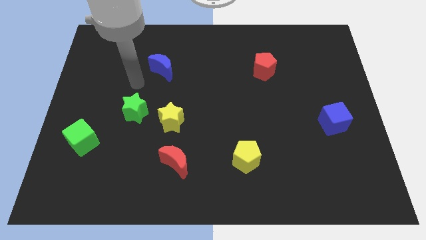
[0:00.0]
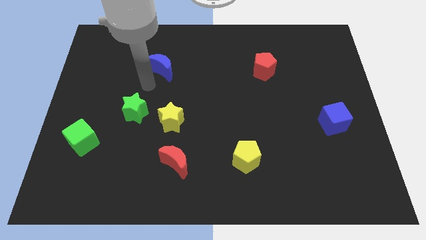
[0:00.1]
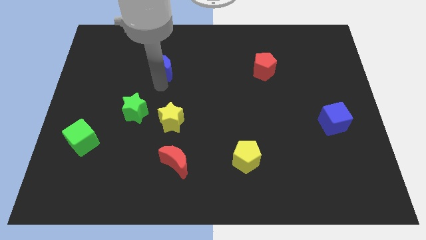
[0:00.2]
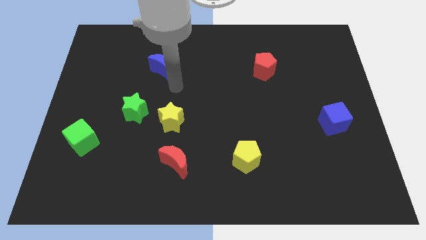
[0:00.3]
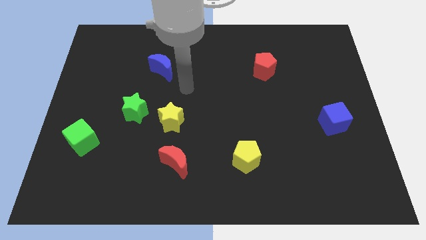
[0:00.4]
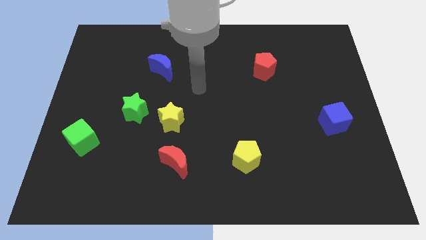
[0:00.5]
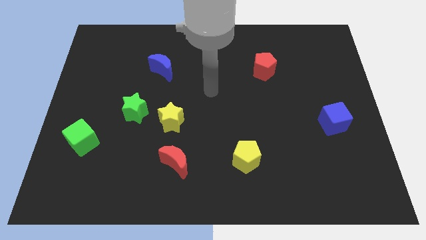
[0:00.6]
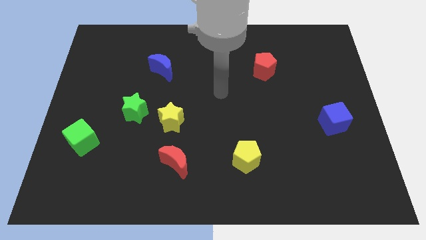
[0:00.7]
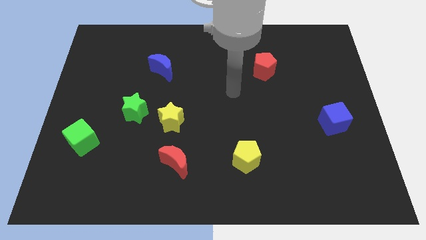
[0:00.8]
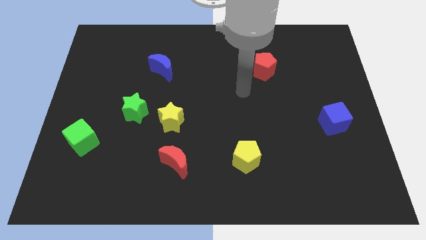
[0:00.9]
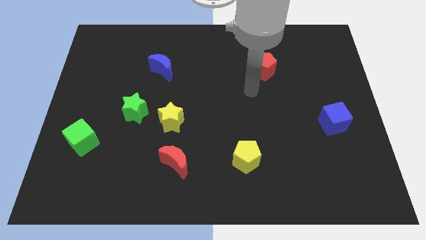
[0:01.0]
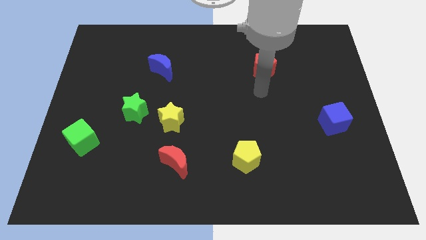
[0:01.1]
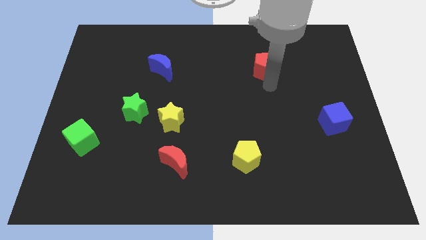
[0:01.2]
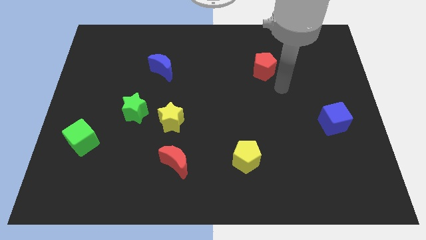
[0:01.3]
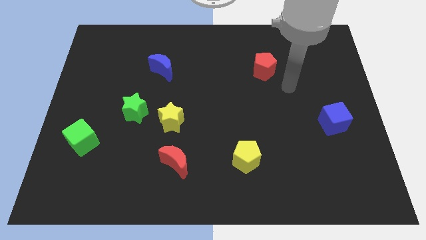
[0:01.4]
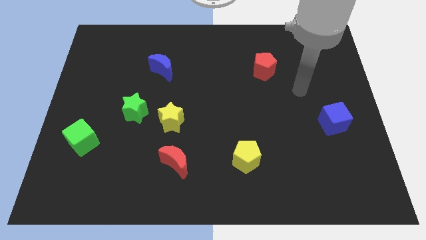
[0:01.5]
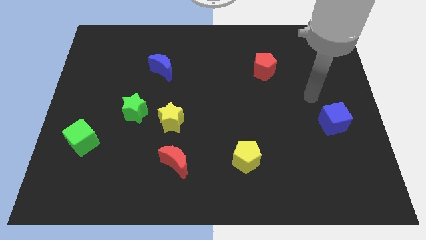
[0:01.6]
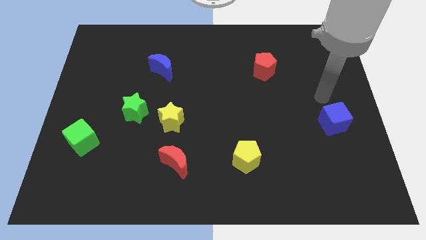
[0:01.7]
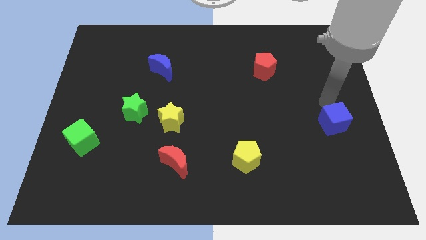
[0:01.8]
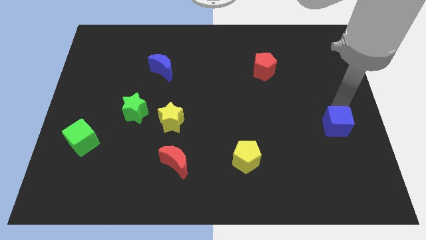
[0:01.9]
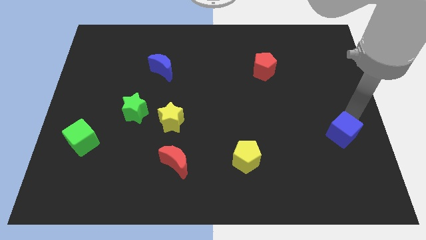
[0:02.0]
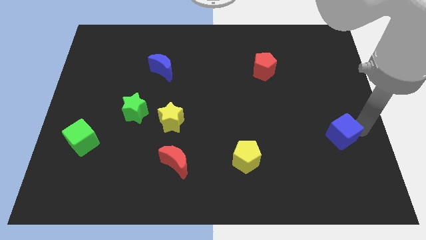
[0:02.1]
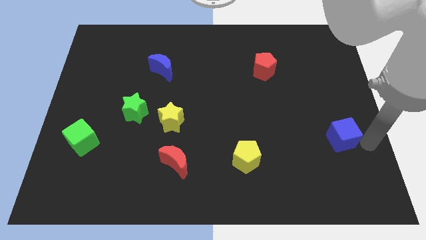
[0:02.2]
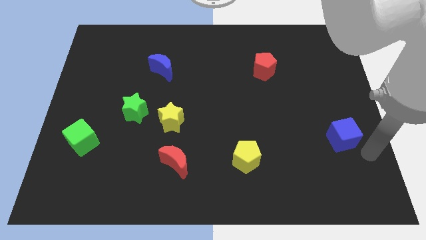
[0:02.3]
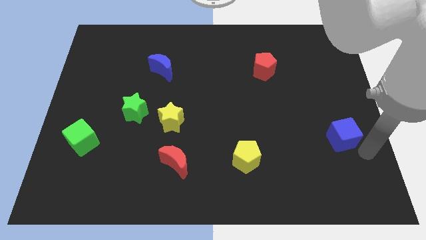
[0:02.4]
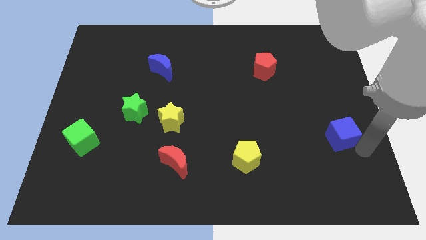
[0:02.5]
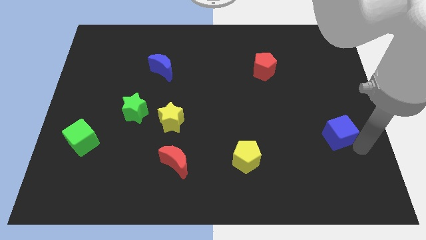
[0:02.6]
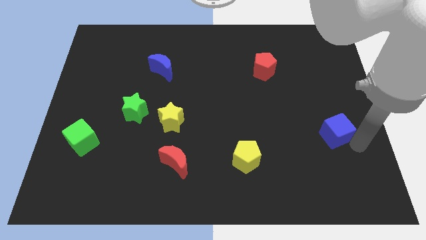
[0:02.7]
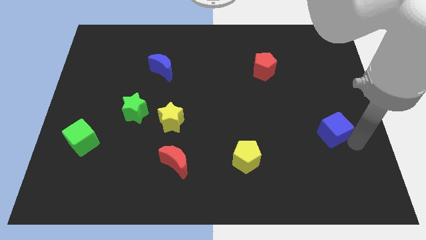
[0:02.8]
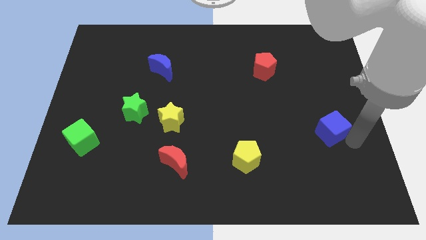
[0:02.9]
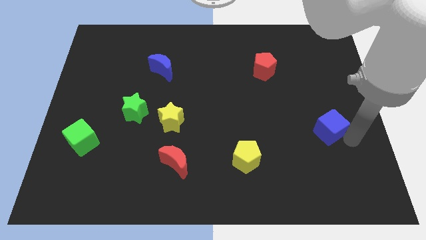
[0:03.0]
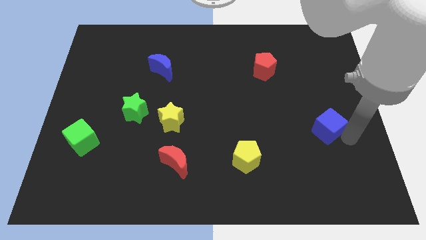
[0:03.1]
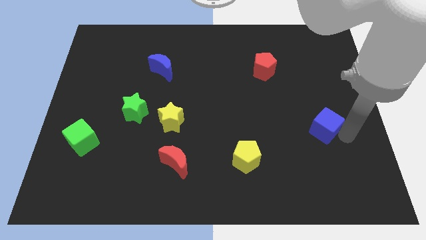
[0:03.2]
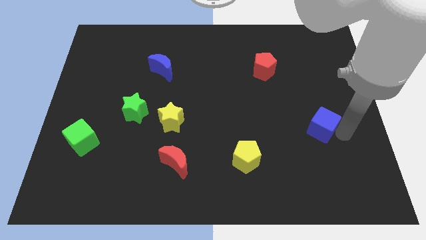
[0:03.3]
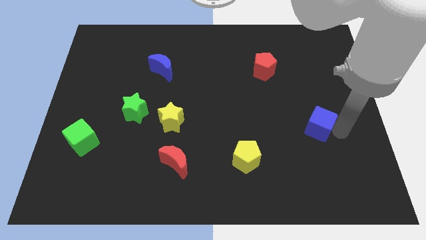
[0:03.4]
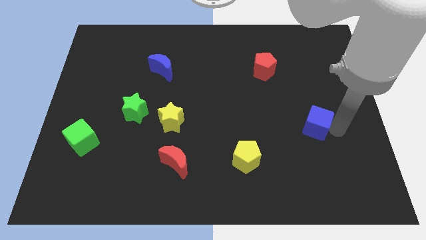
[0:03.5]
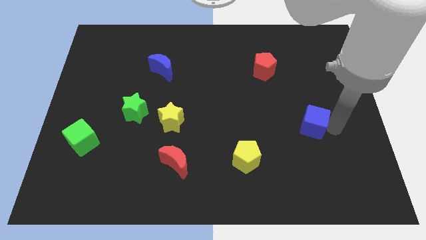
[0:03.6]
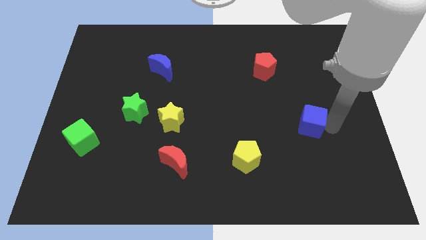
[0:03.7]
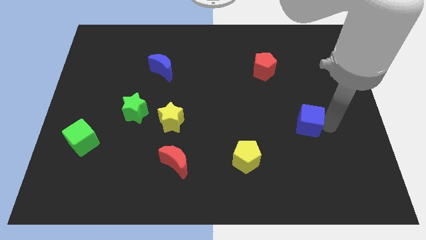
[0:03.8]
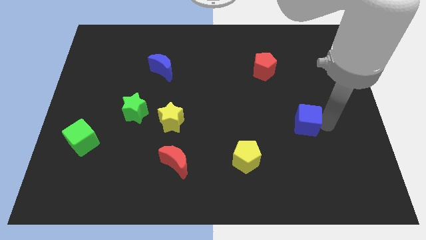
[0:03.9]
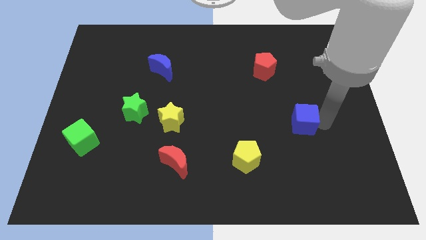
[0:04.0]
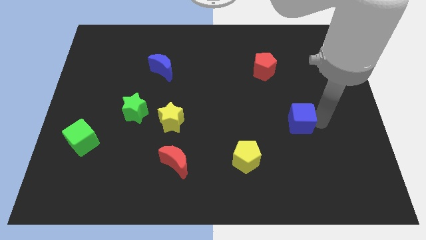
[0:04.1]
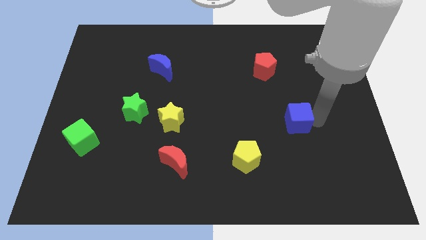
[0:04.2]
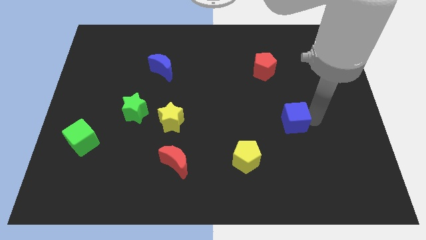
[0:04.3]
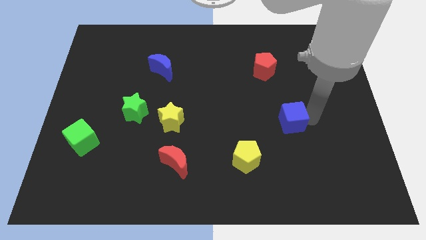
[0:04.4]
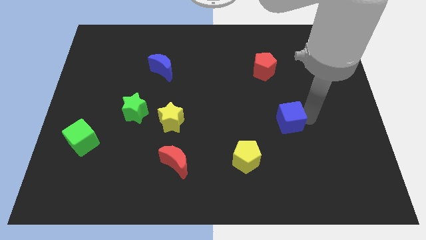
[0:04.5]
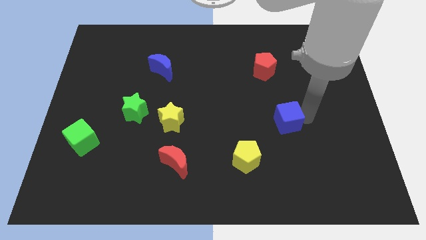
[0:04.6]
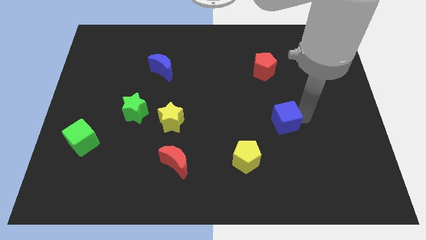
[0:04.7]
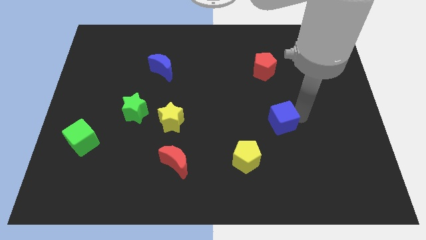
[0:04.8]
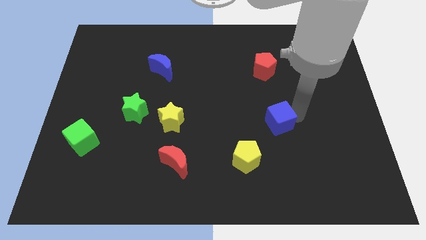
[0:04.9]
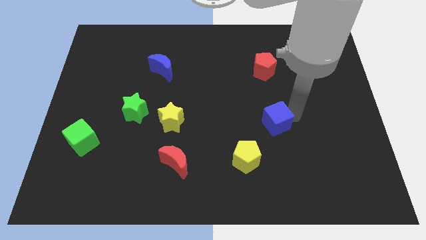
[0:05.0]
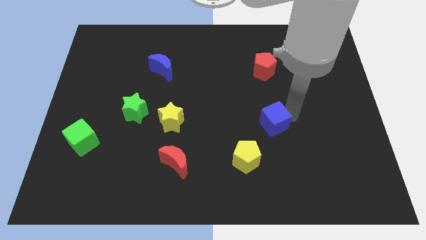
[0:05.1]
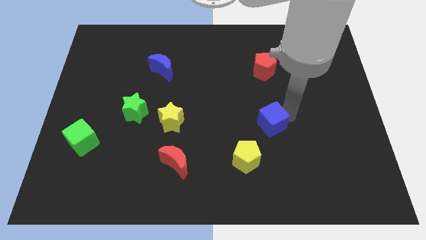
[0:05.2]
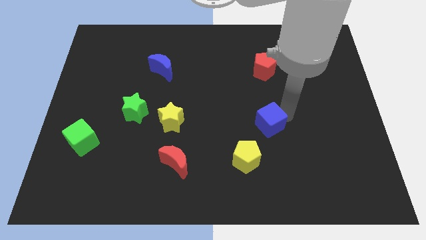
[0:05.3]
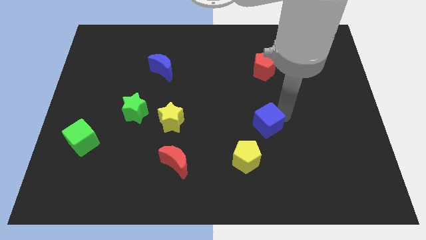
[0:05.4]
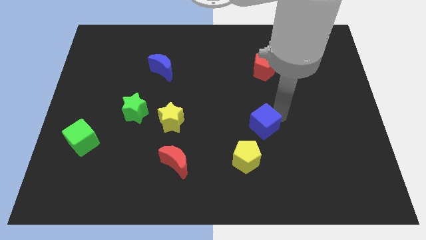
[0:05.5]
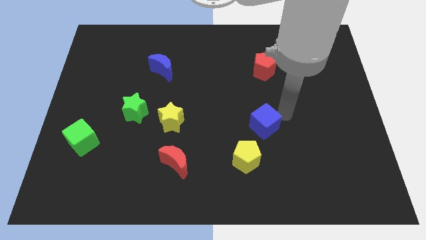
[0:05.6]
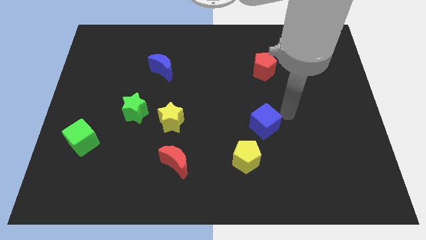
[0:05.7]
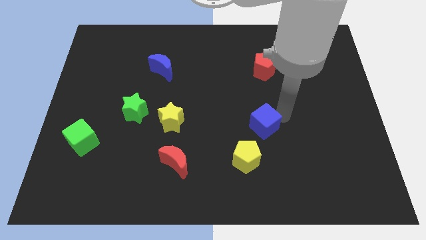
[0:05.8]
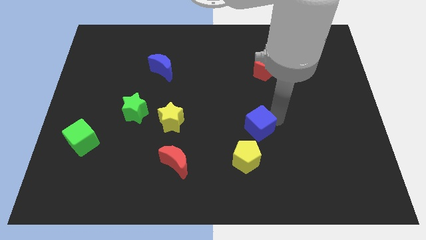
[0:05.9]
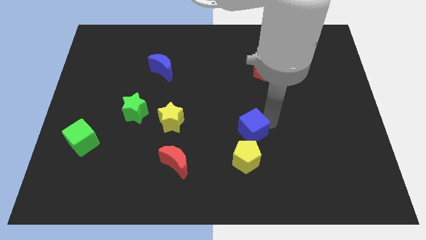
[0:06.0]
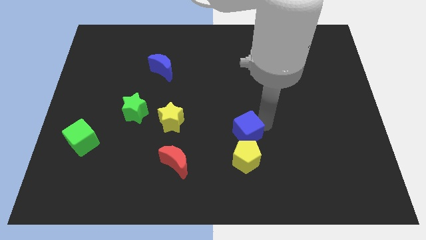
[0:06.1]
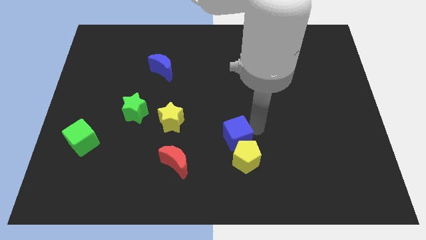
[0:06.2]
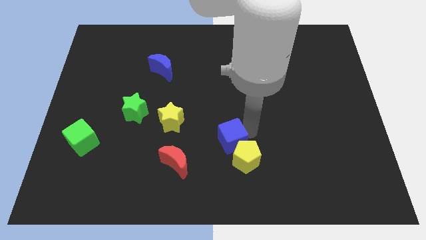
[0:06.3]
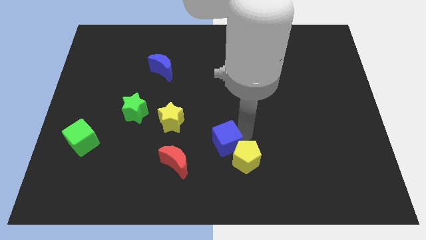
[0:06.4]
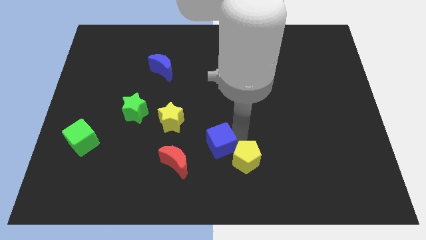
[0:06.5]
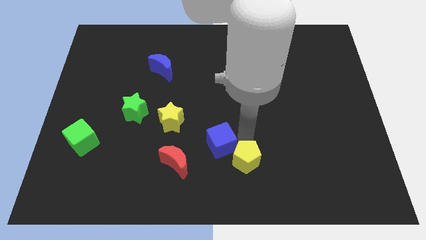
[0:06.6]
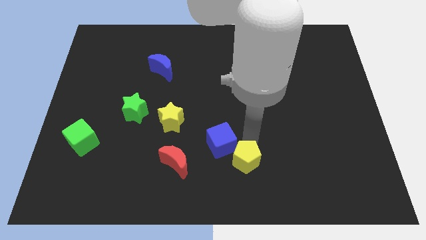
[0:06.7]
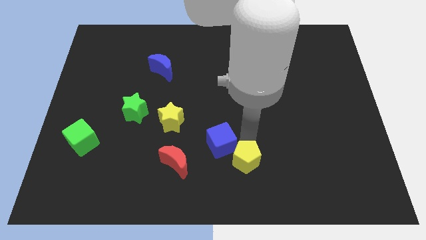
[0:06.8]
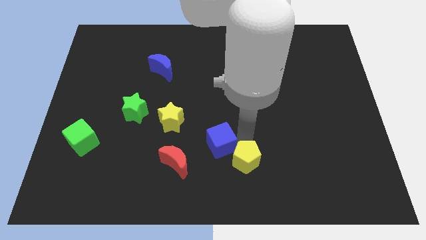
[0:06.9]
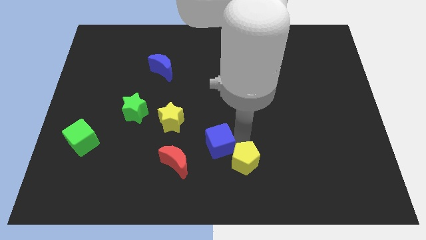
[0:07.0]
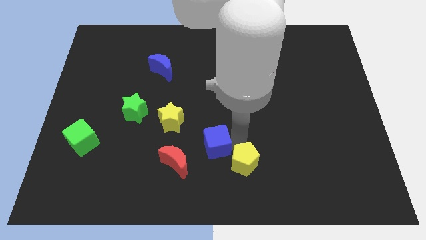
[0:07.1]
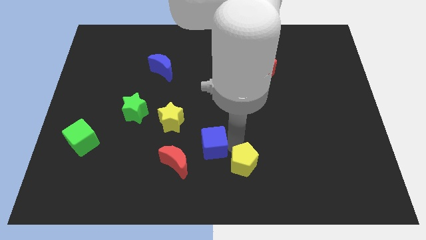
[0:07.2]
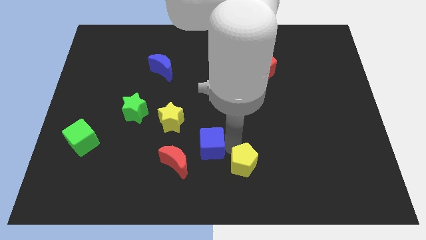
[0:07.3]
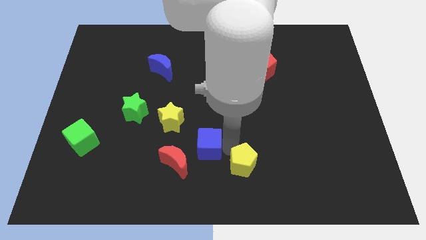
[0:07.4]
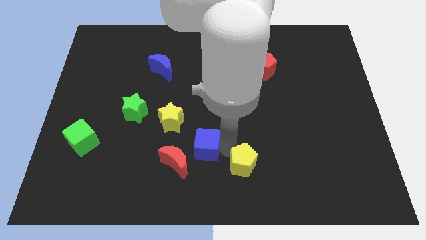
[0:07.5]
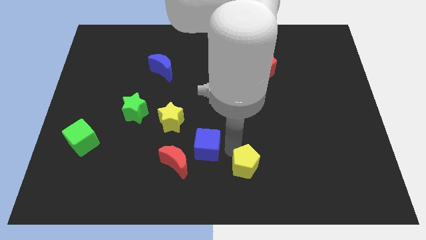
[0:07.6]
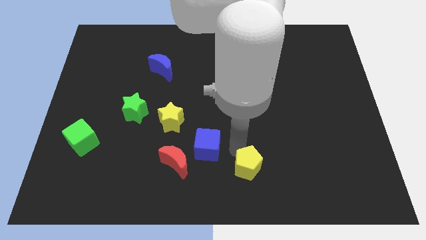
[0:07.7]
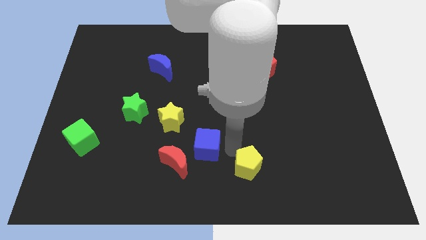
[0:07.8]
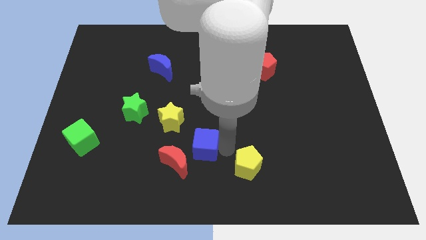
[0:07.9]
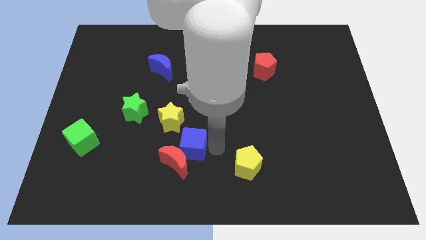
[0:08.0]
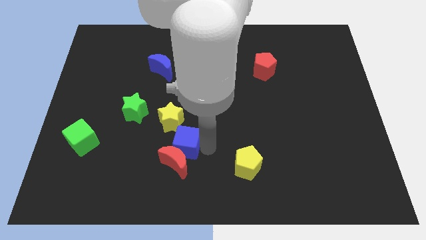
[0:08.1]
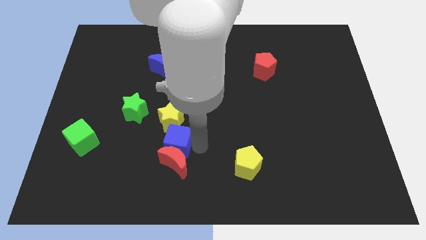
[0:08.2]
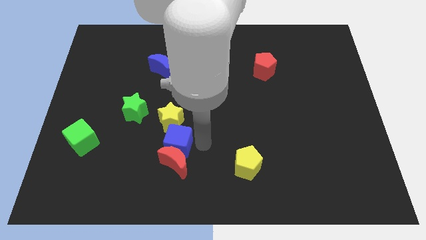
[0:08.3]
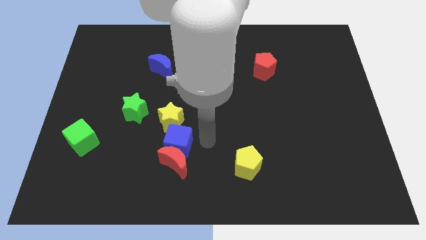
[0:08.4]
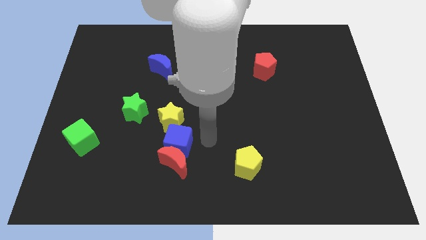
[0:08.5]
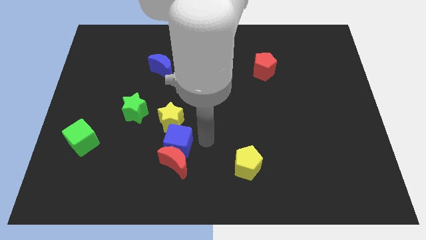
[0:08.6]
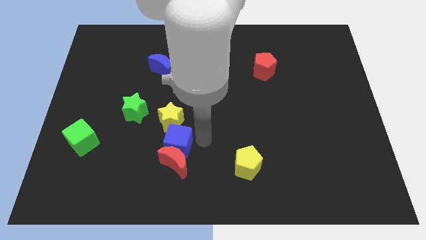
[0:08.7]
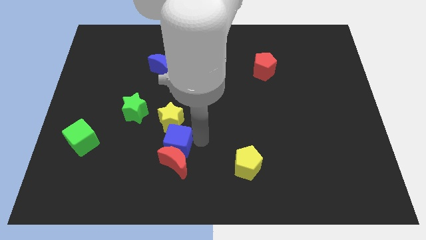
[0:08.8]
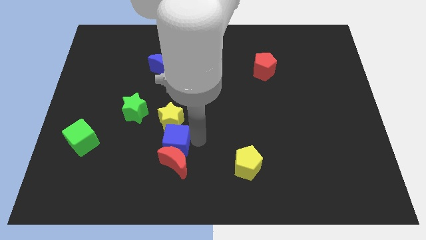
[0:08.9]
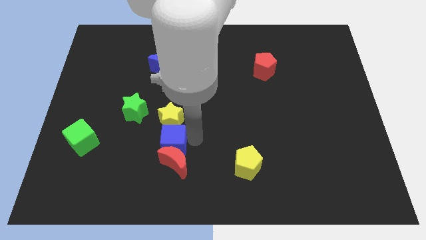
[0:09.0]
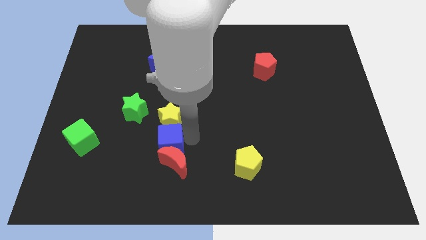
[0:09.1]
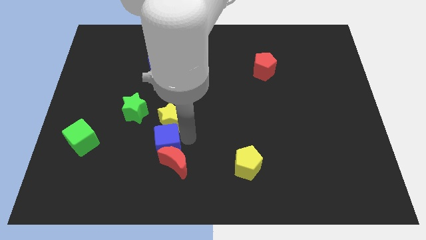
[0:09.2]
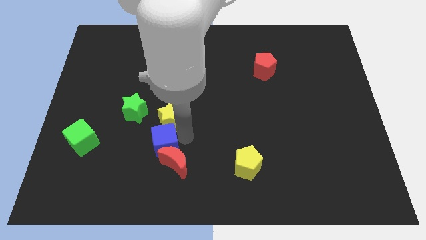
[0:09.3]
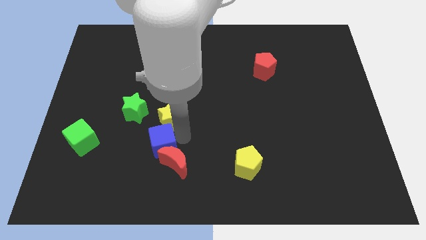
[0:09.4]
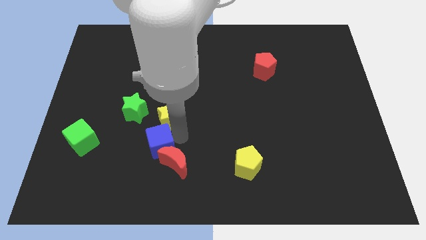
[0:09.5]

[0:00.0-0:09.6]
move the blue cube to the left side of the red moon
